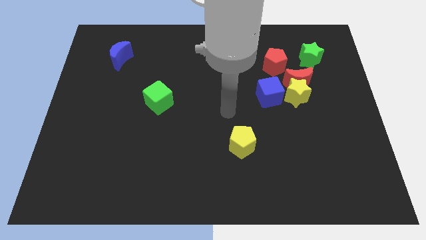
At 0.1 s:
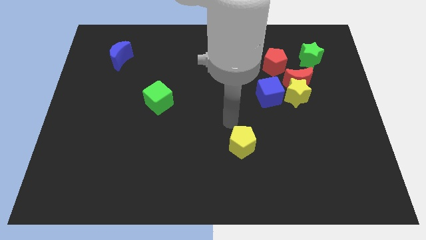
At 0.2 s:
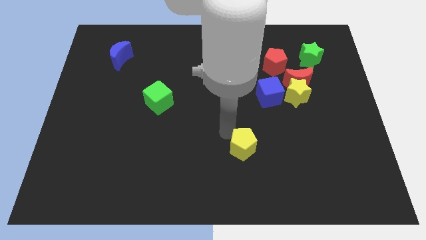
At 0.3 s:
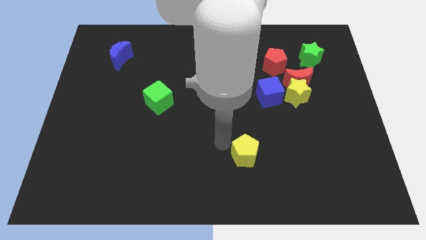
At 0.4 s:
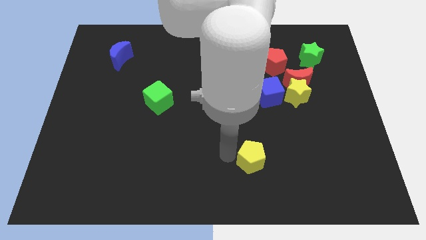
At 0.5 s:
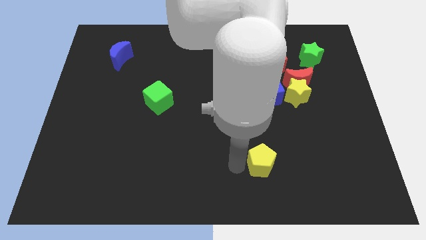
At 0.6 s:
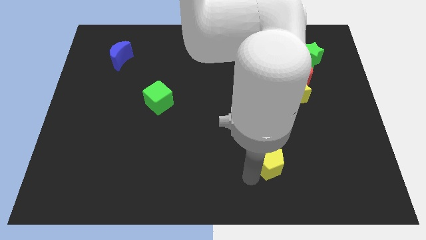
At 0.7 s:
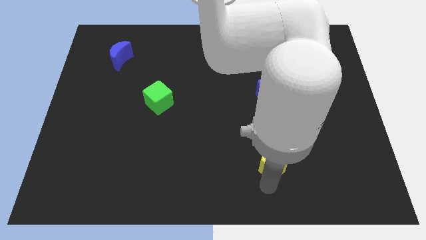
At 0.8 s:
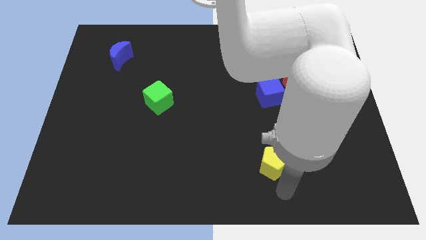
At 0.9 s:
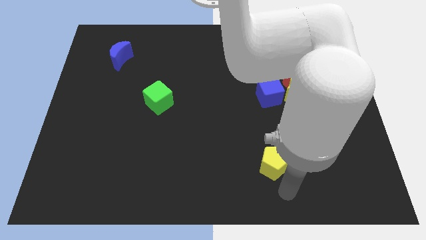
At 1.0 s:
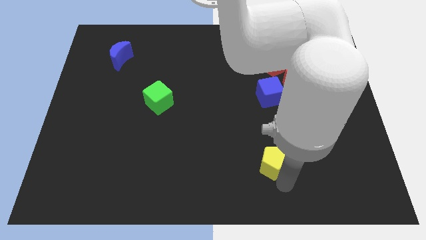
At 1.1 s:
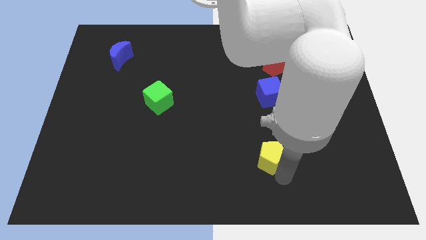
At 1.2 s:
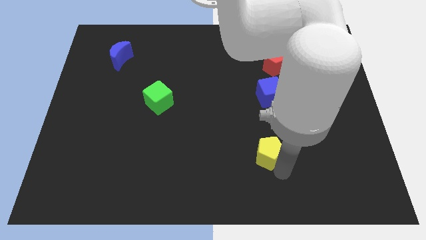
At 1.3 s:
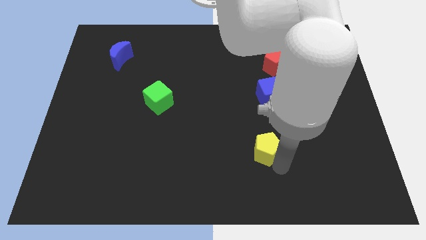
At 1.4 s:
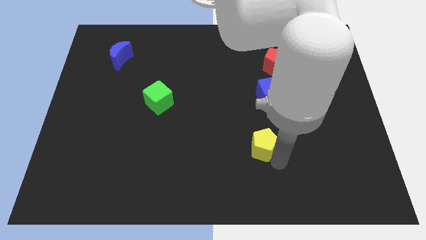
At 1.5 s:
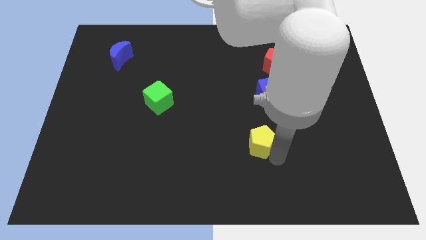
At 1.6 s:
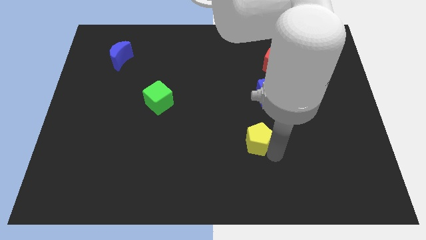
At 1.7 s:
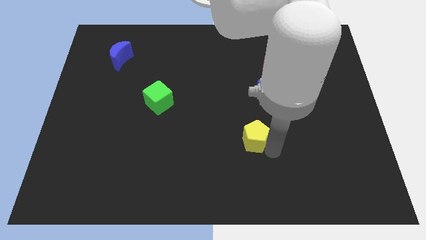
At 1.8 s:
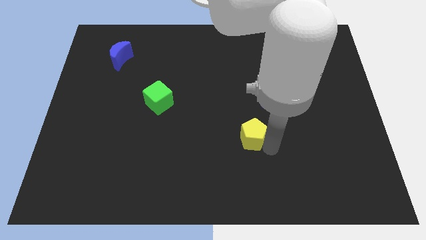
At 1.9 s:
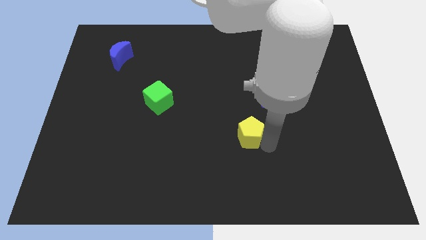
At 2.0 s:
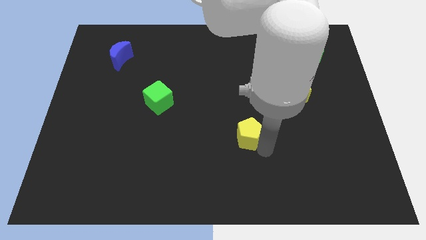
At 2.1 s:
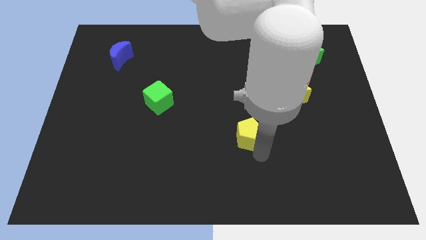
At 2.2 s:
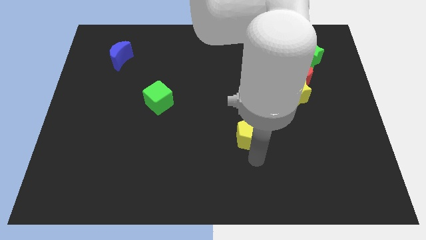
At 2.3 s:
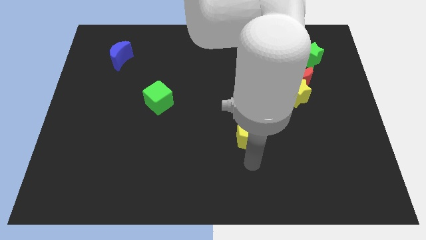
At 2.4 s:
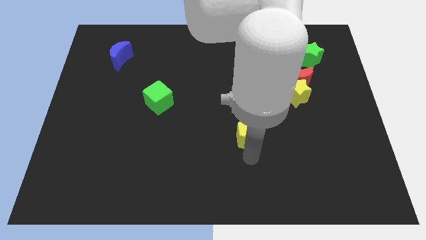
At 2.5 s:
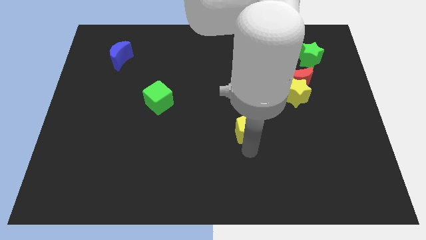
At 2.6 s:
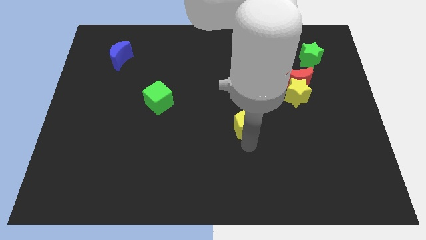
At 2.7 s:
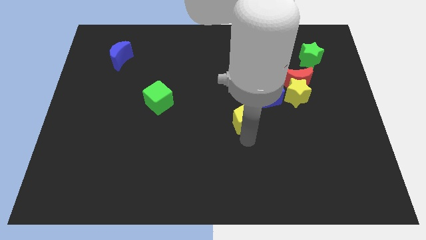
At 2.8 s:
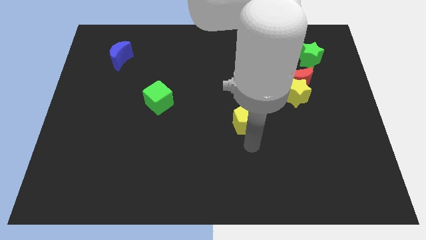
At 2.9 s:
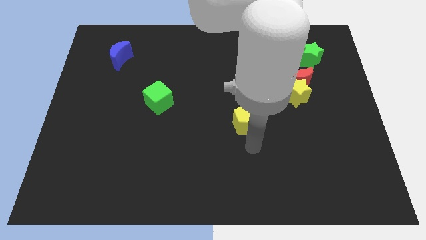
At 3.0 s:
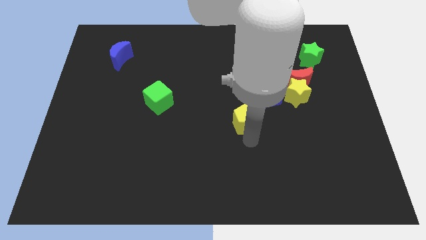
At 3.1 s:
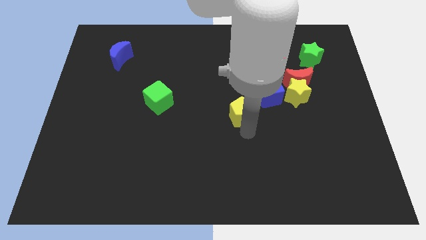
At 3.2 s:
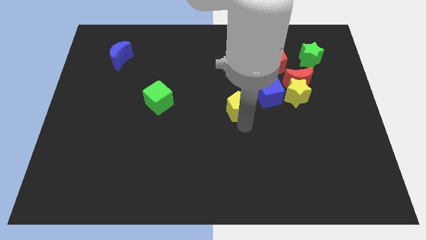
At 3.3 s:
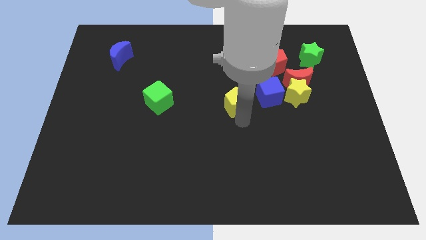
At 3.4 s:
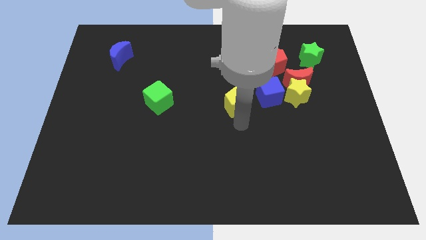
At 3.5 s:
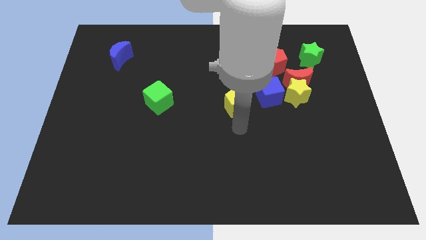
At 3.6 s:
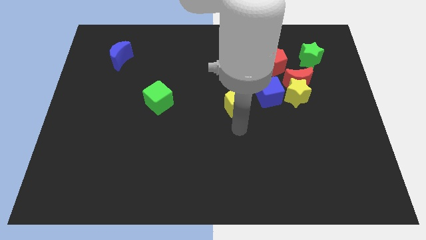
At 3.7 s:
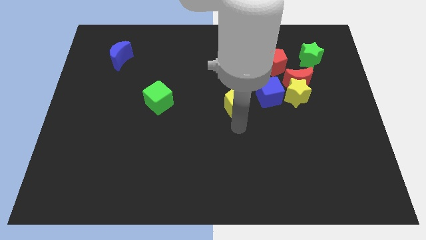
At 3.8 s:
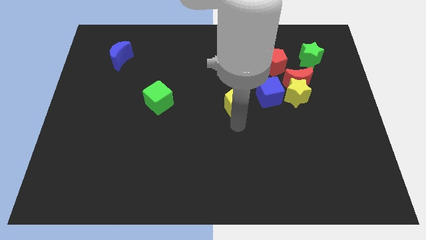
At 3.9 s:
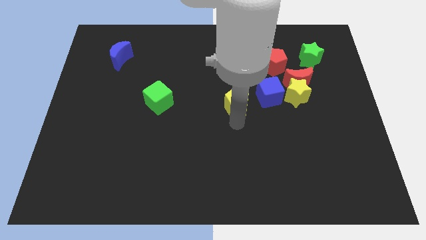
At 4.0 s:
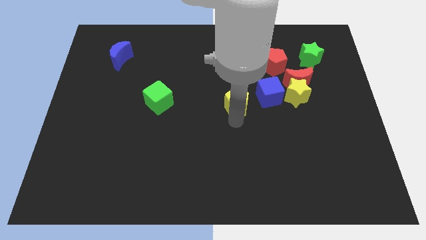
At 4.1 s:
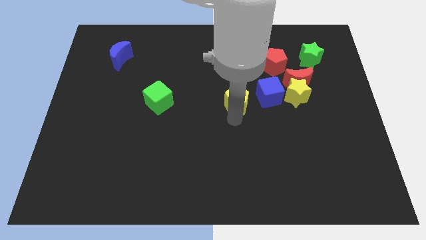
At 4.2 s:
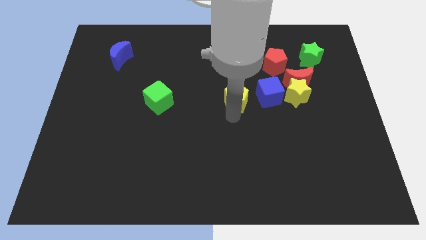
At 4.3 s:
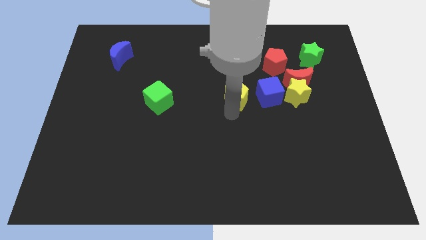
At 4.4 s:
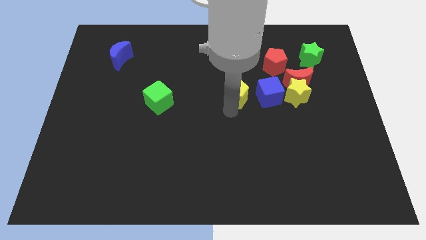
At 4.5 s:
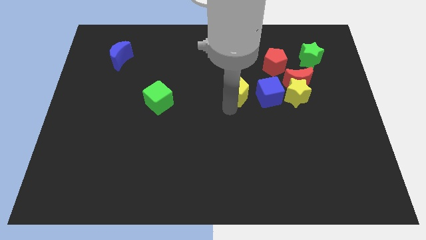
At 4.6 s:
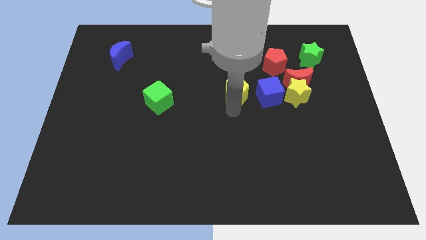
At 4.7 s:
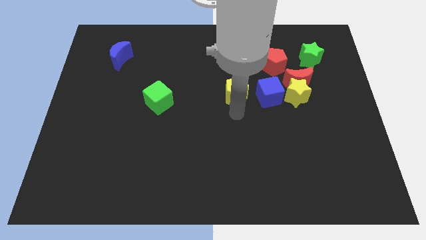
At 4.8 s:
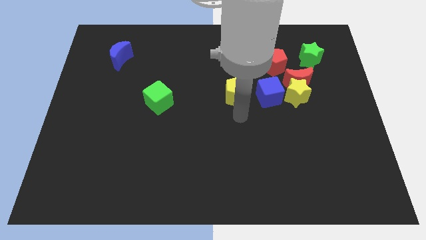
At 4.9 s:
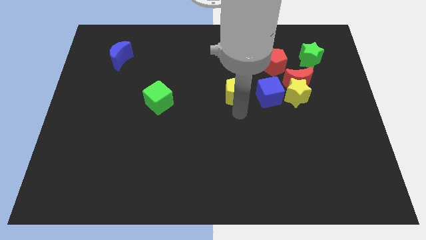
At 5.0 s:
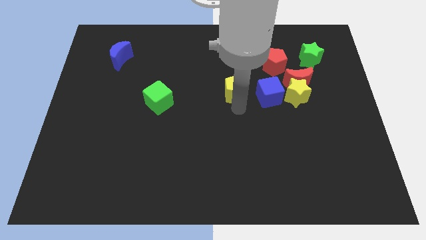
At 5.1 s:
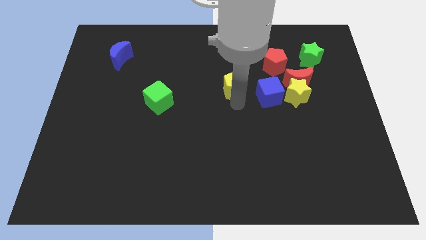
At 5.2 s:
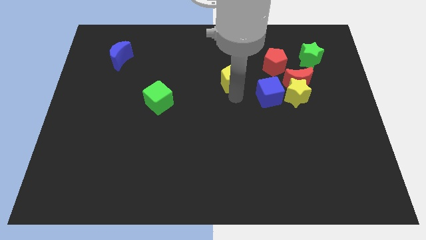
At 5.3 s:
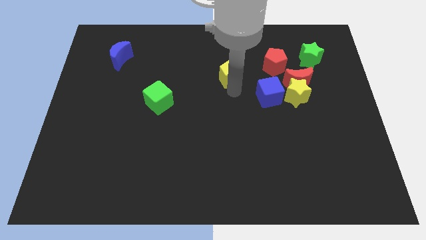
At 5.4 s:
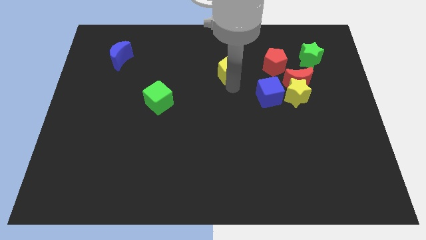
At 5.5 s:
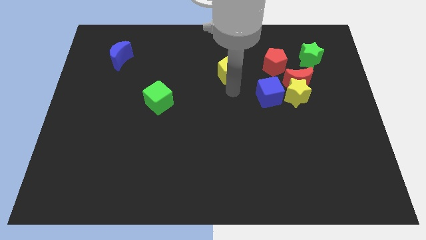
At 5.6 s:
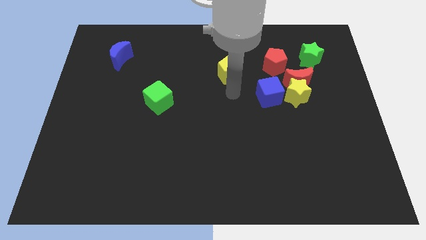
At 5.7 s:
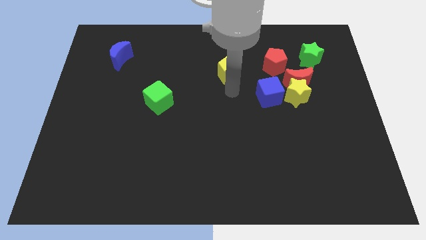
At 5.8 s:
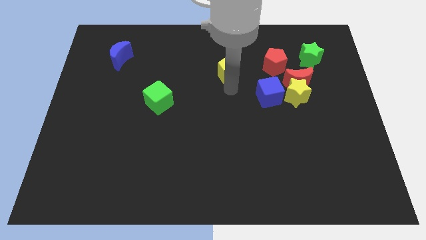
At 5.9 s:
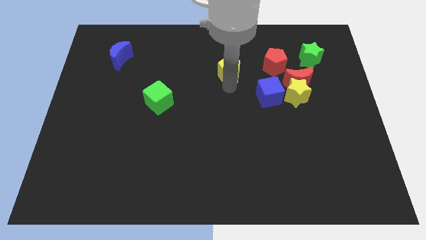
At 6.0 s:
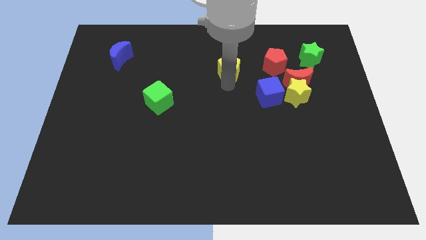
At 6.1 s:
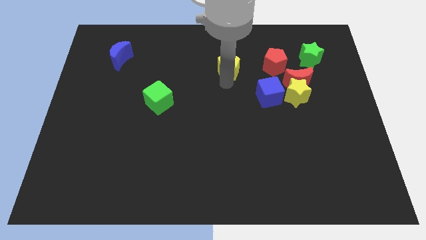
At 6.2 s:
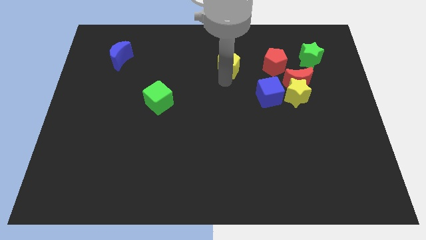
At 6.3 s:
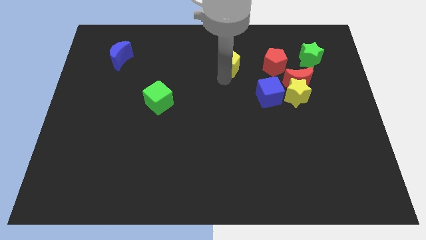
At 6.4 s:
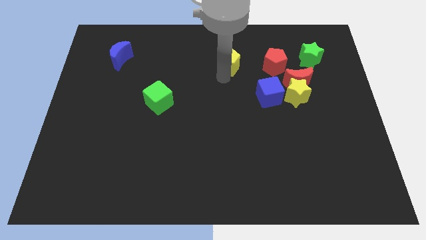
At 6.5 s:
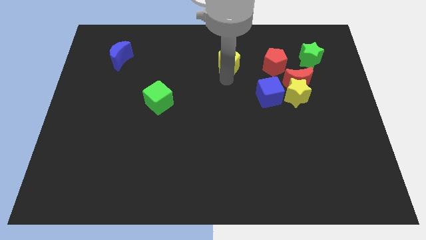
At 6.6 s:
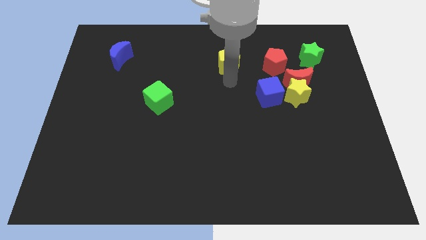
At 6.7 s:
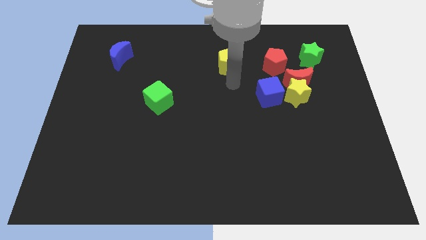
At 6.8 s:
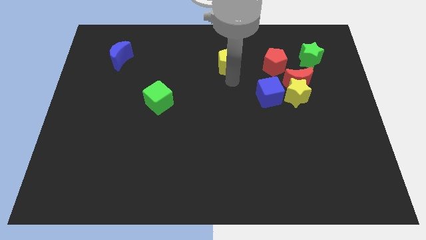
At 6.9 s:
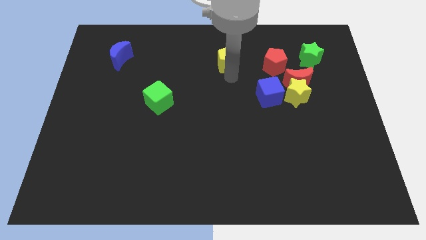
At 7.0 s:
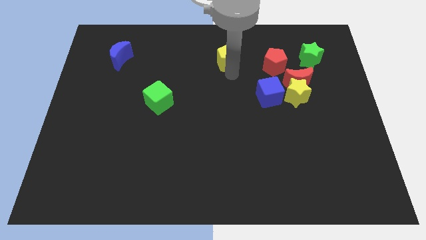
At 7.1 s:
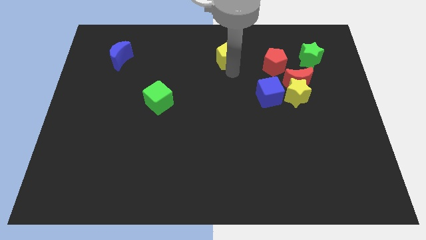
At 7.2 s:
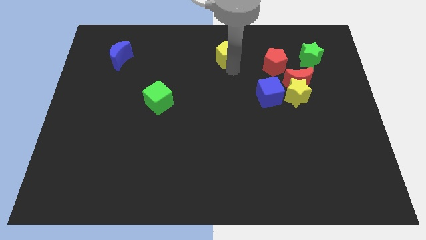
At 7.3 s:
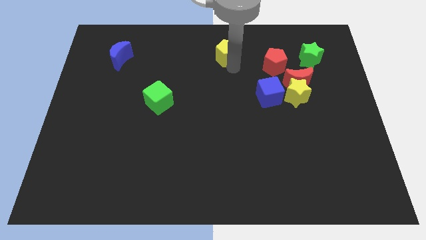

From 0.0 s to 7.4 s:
move the yellow pentagon to the towards your base
